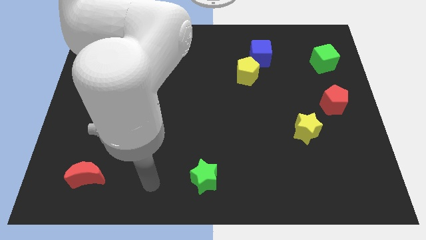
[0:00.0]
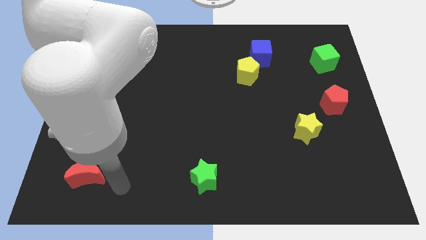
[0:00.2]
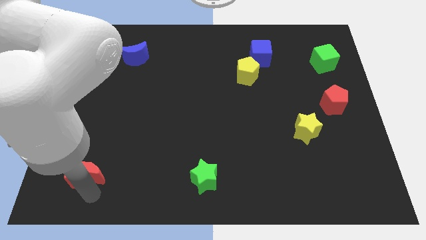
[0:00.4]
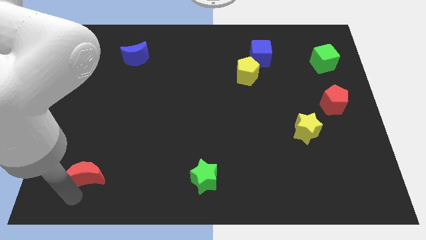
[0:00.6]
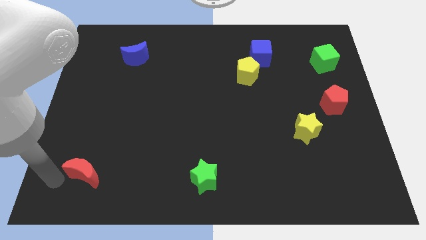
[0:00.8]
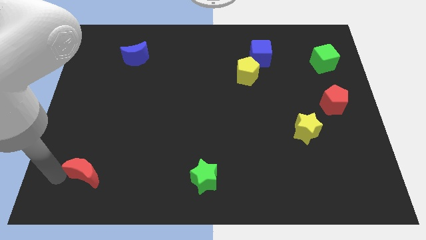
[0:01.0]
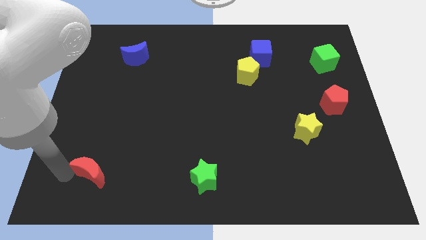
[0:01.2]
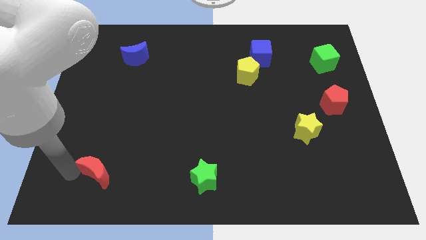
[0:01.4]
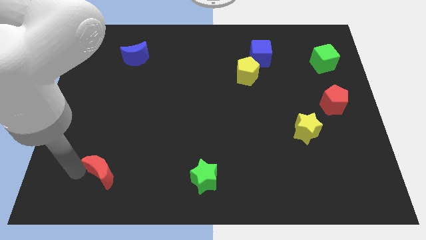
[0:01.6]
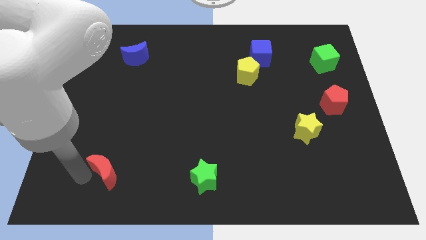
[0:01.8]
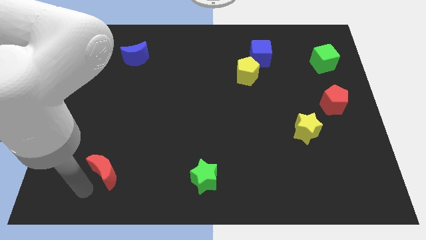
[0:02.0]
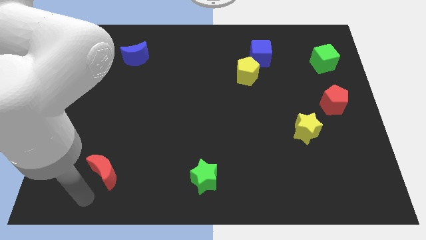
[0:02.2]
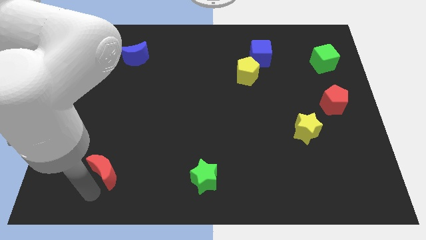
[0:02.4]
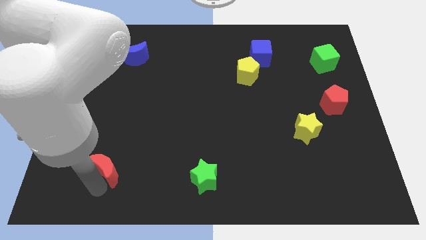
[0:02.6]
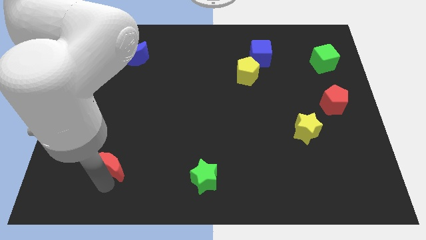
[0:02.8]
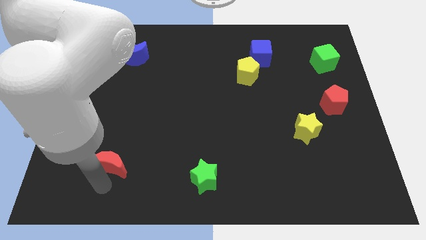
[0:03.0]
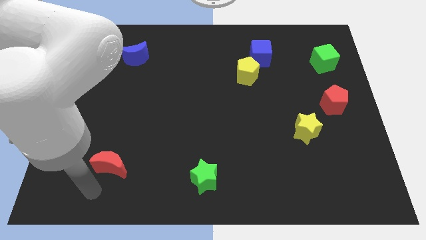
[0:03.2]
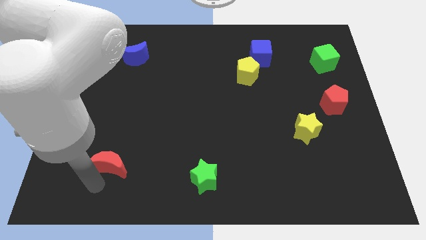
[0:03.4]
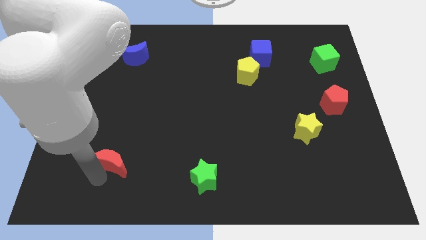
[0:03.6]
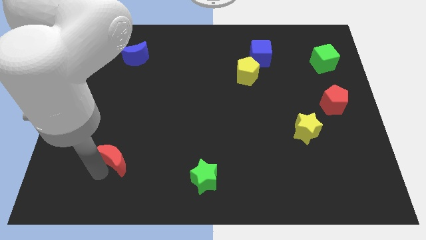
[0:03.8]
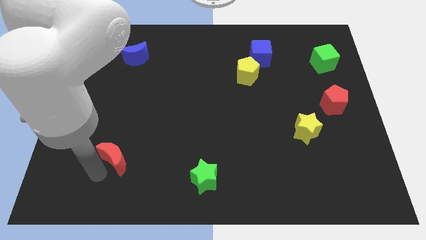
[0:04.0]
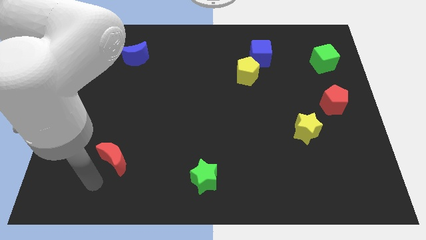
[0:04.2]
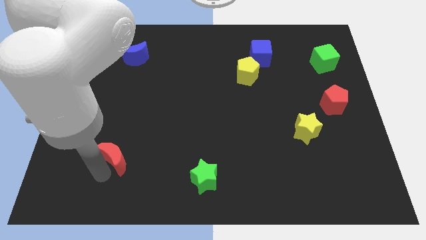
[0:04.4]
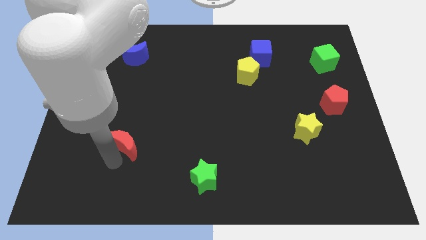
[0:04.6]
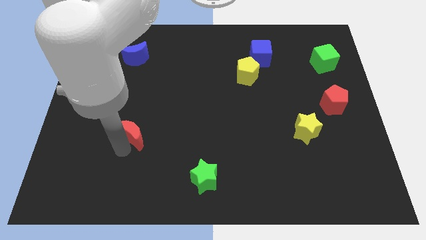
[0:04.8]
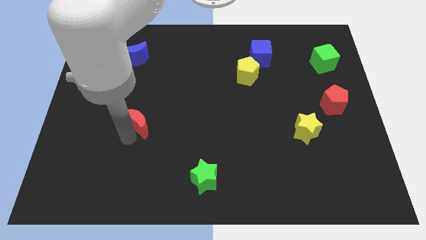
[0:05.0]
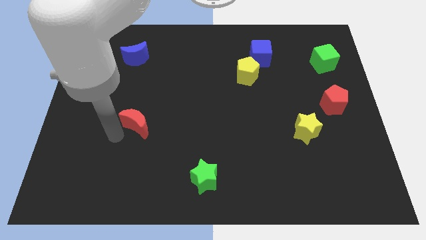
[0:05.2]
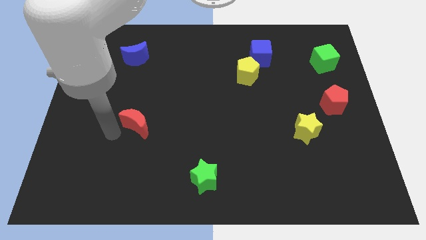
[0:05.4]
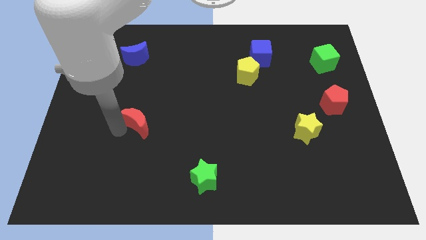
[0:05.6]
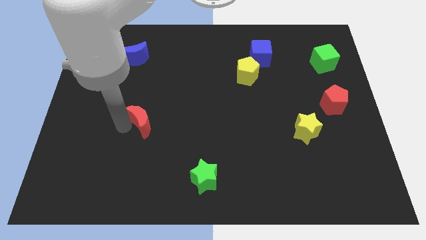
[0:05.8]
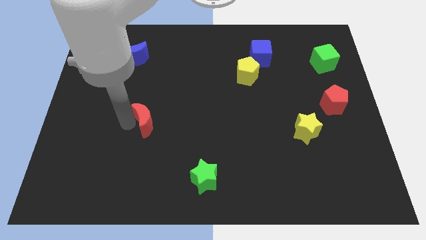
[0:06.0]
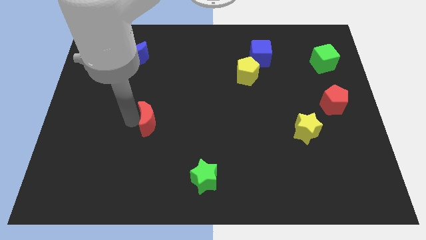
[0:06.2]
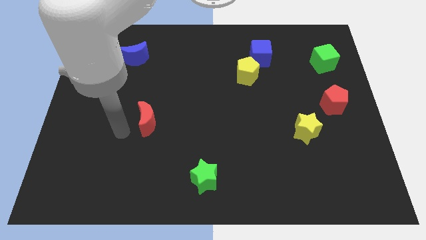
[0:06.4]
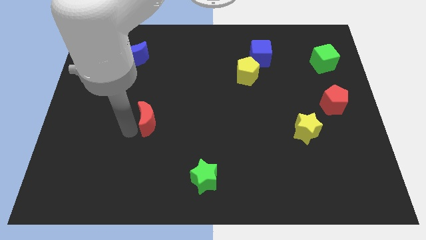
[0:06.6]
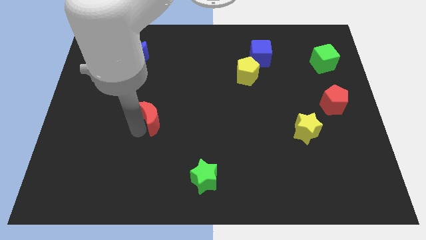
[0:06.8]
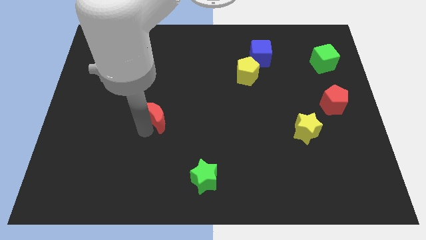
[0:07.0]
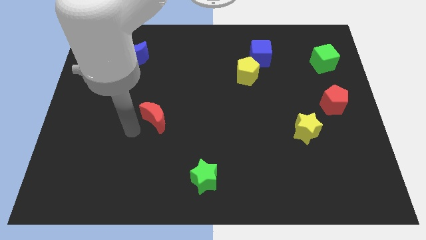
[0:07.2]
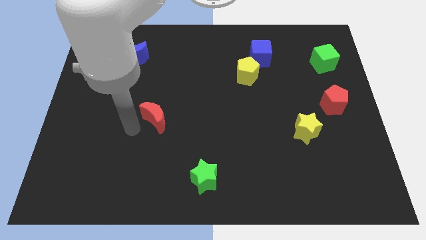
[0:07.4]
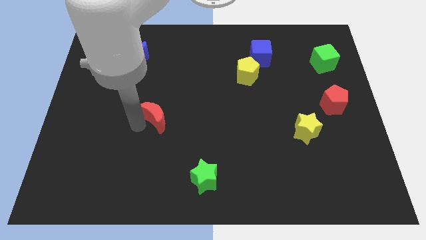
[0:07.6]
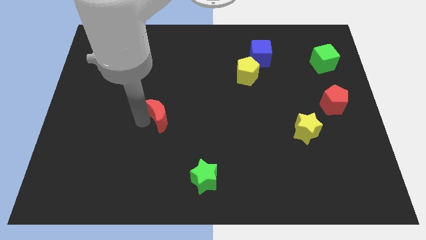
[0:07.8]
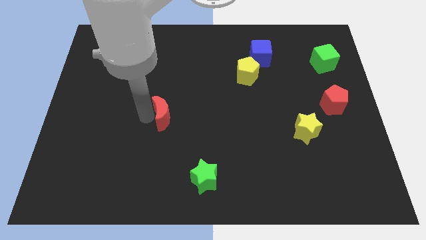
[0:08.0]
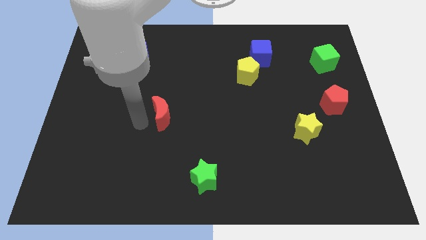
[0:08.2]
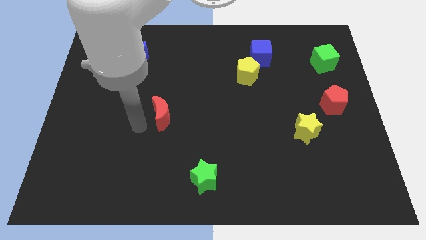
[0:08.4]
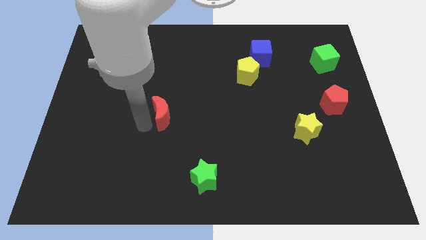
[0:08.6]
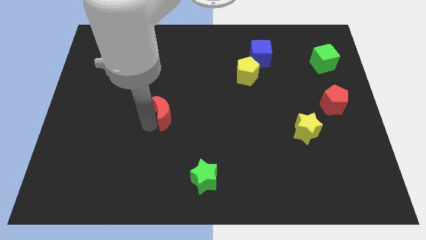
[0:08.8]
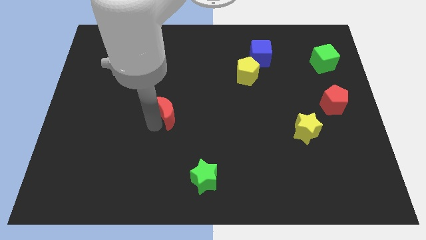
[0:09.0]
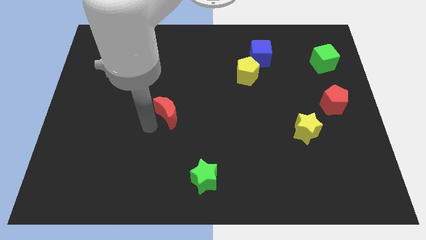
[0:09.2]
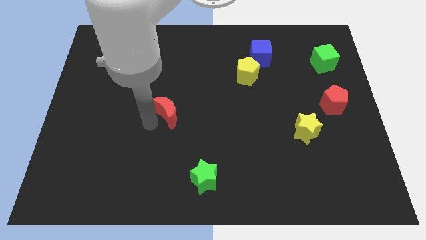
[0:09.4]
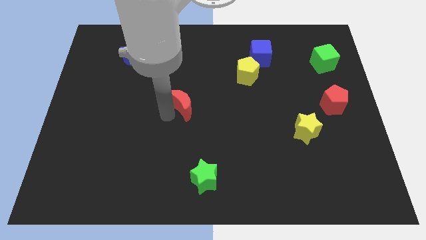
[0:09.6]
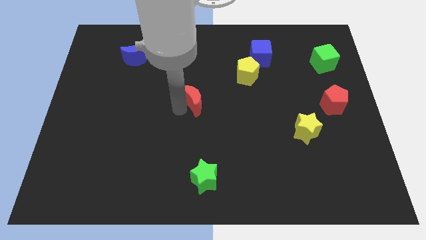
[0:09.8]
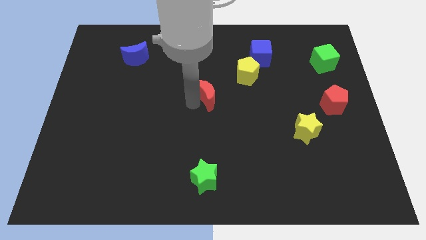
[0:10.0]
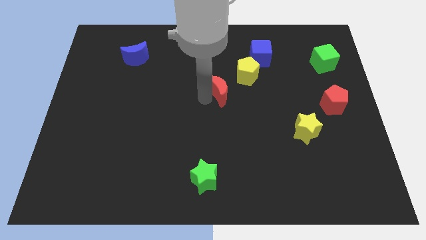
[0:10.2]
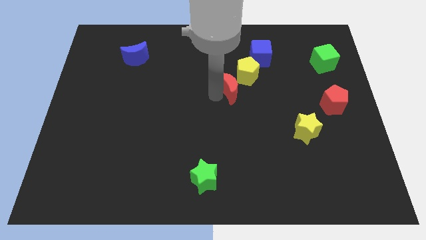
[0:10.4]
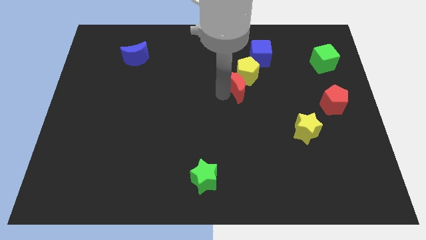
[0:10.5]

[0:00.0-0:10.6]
slide the red moon to the yellow pentagon

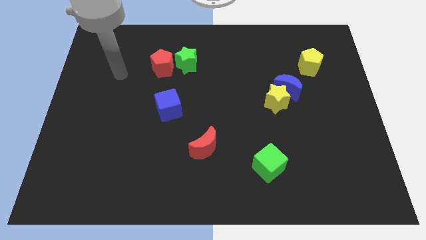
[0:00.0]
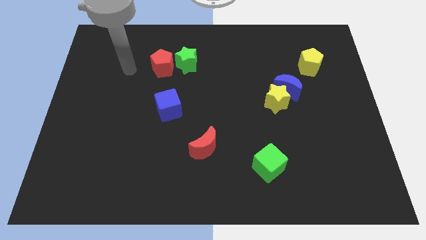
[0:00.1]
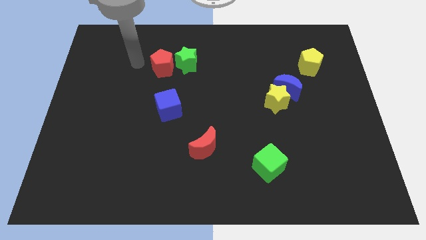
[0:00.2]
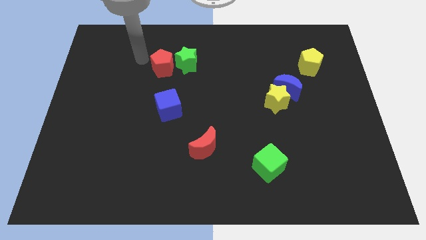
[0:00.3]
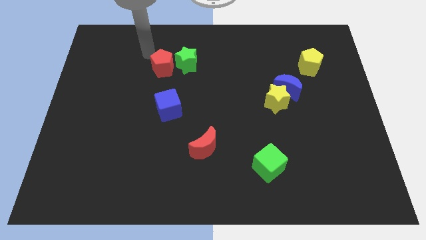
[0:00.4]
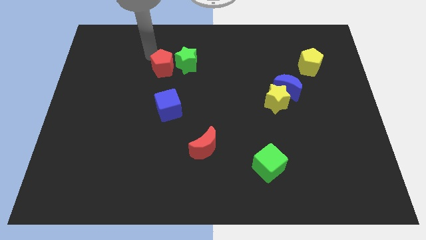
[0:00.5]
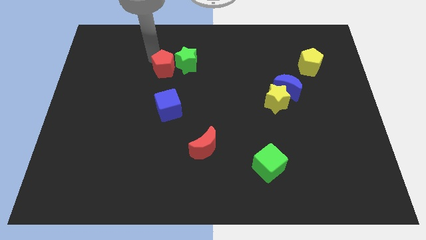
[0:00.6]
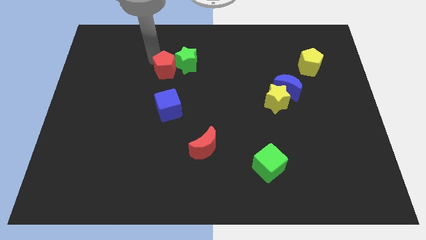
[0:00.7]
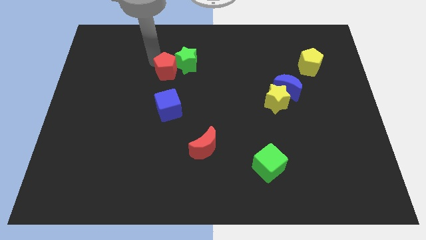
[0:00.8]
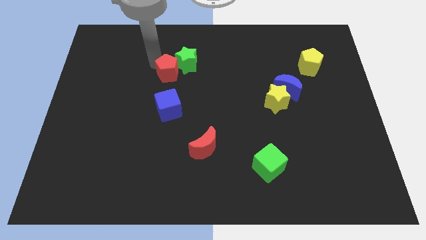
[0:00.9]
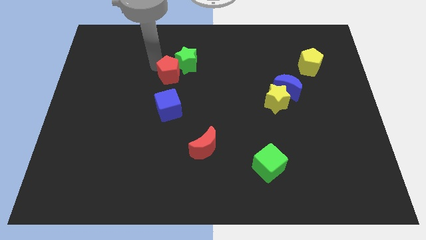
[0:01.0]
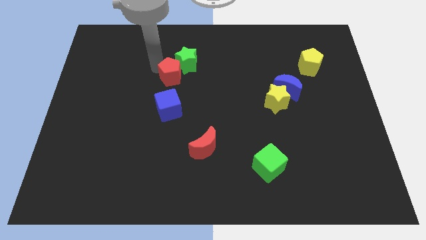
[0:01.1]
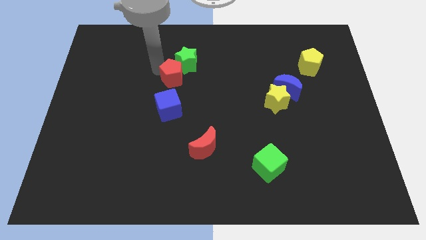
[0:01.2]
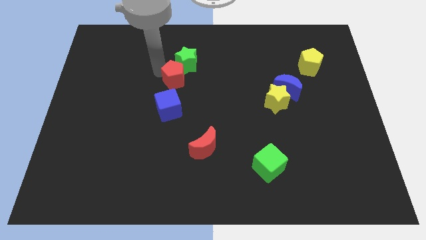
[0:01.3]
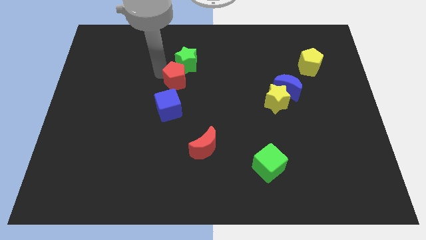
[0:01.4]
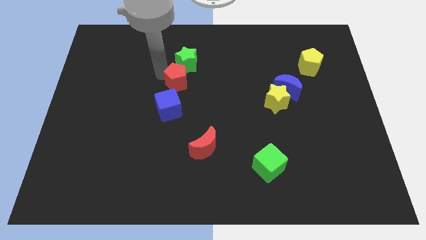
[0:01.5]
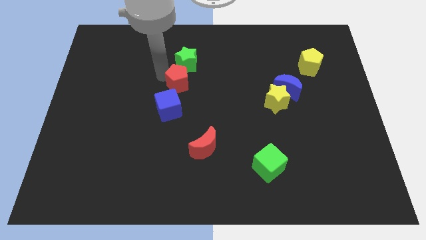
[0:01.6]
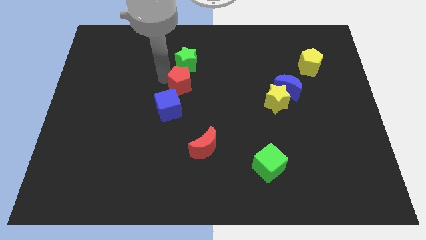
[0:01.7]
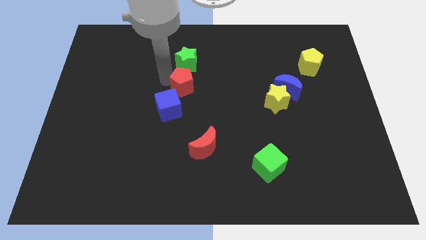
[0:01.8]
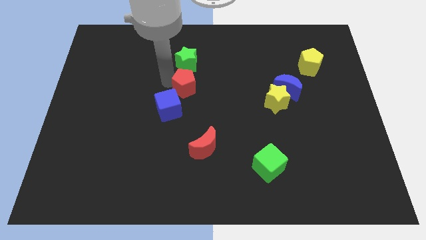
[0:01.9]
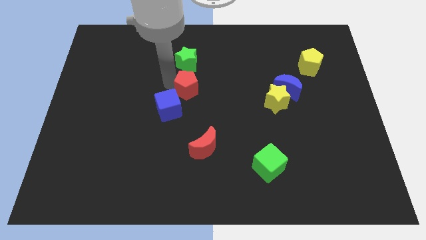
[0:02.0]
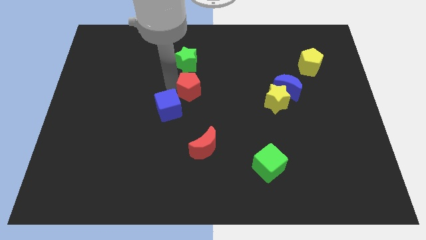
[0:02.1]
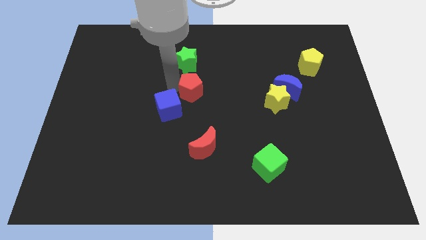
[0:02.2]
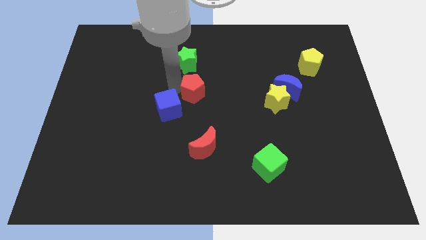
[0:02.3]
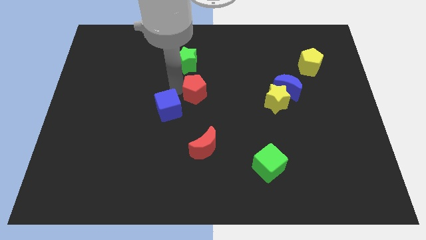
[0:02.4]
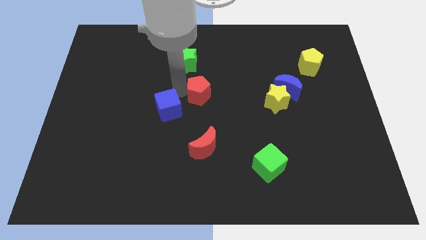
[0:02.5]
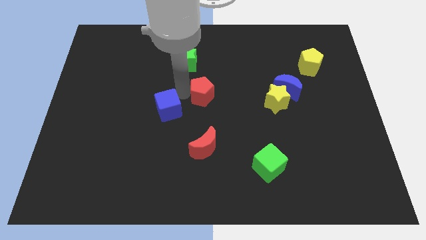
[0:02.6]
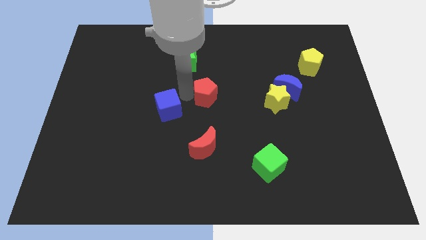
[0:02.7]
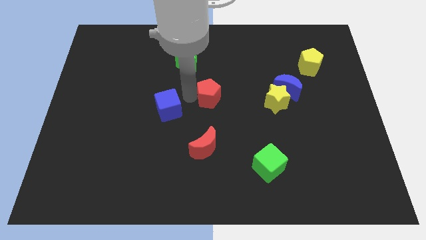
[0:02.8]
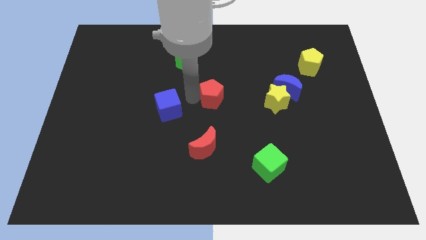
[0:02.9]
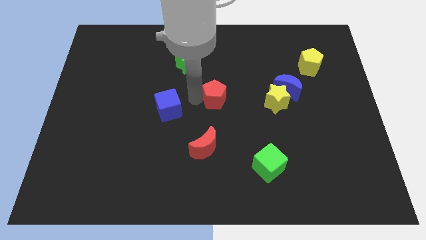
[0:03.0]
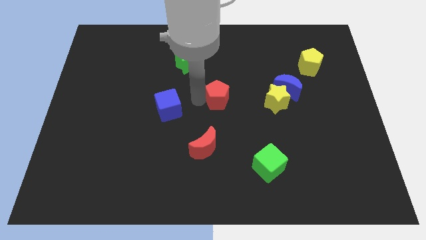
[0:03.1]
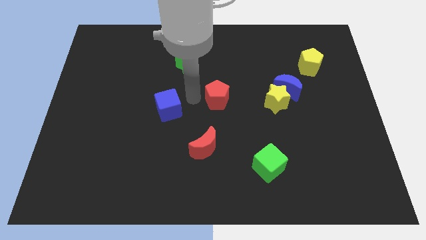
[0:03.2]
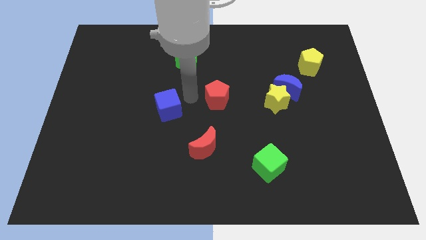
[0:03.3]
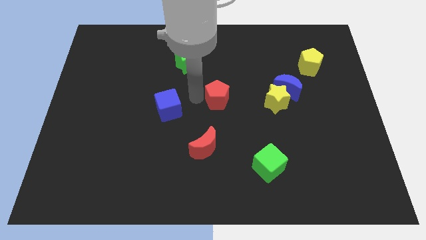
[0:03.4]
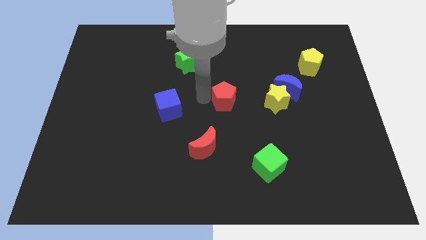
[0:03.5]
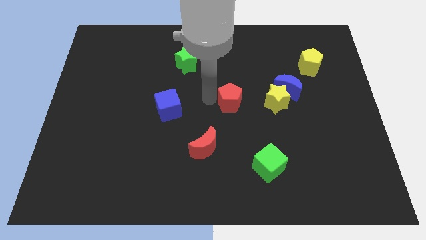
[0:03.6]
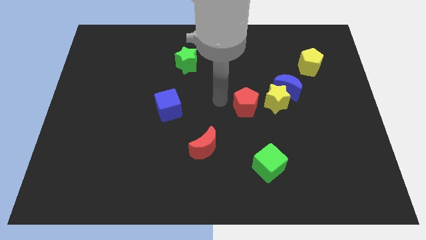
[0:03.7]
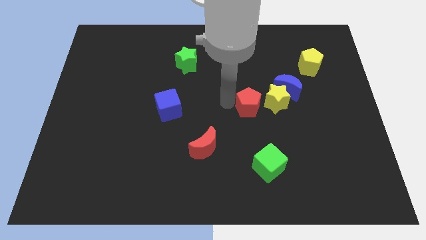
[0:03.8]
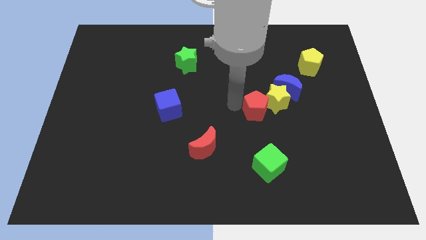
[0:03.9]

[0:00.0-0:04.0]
move the red pentagon close to the yellow star
